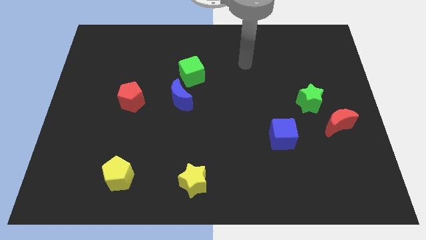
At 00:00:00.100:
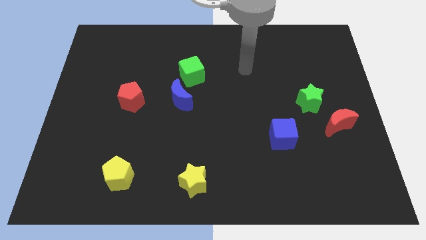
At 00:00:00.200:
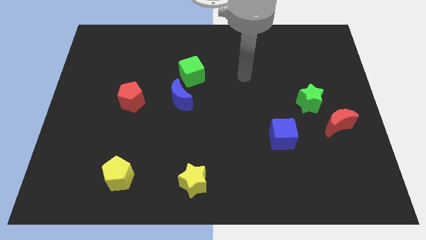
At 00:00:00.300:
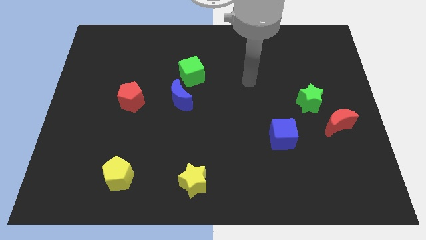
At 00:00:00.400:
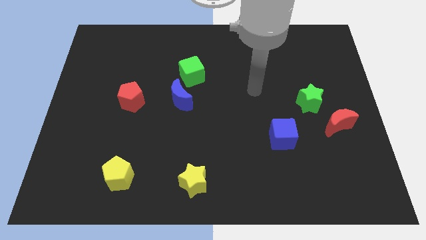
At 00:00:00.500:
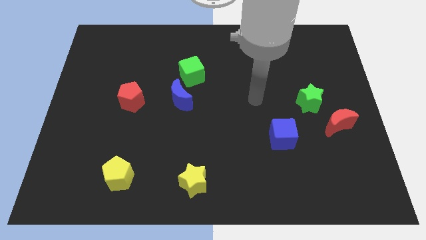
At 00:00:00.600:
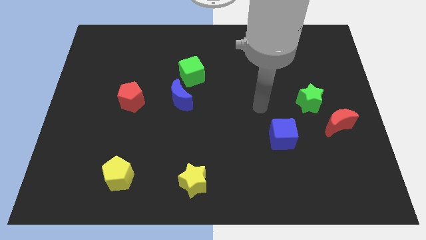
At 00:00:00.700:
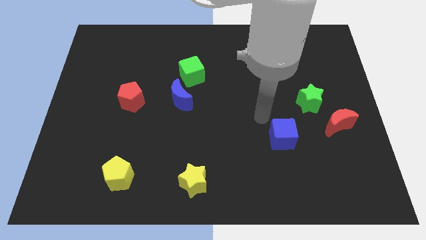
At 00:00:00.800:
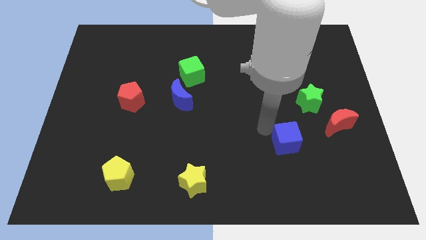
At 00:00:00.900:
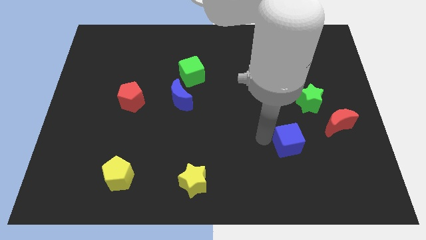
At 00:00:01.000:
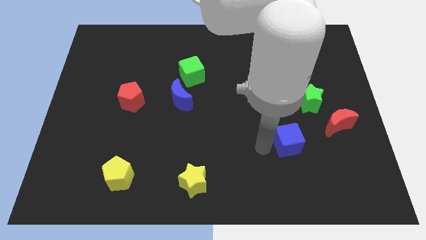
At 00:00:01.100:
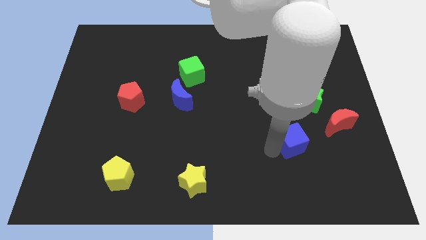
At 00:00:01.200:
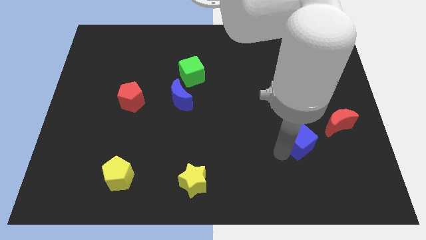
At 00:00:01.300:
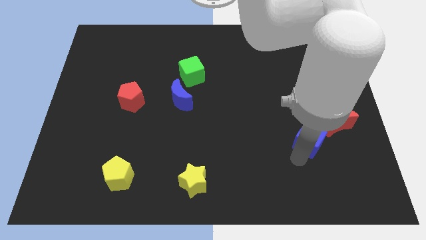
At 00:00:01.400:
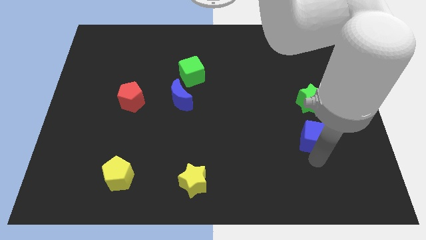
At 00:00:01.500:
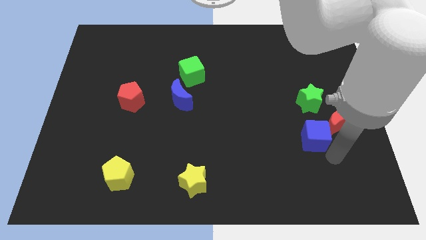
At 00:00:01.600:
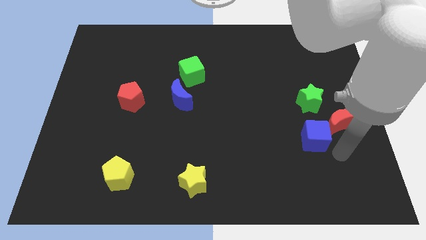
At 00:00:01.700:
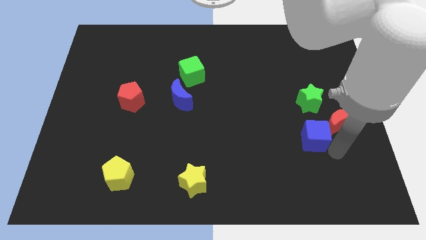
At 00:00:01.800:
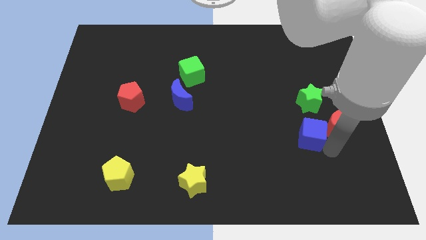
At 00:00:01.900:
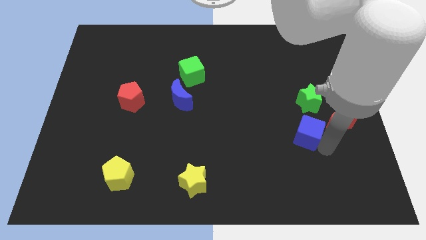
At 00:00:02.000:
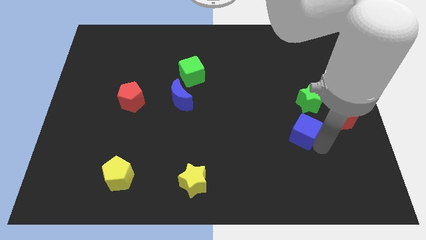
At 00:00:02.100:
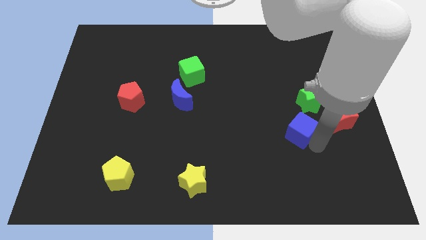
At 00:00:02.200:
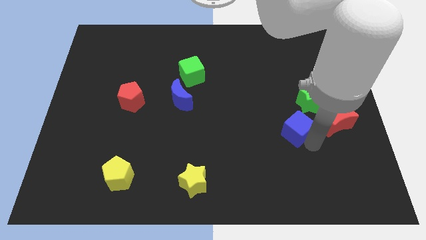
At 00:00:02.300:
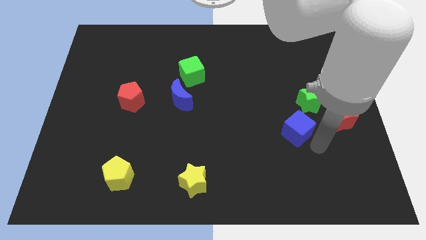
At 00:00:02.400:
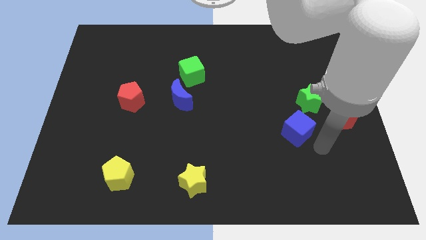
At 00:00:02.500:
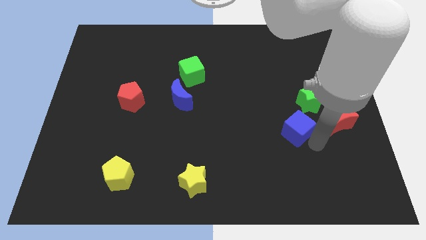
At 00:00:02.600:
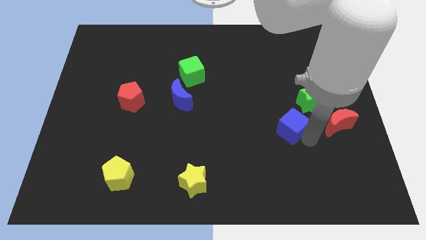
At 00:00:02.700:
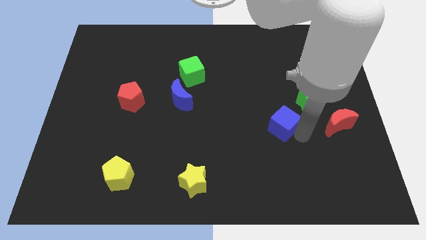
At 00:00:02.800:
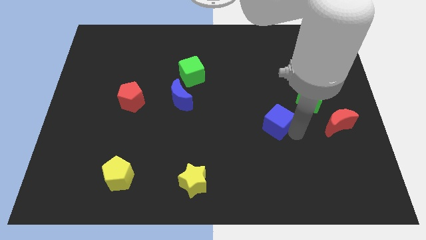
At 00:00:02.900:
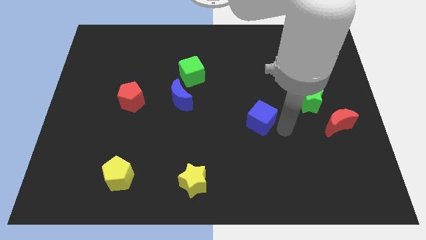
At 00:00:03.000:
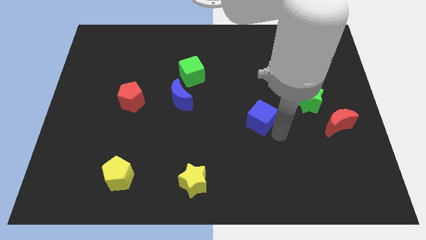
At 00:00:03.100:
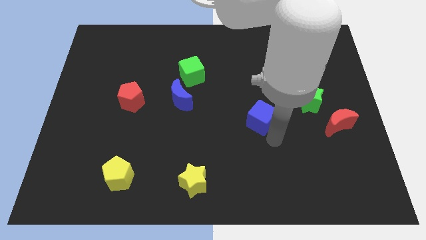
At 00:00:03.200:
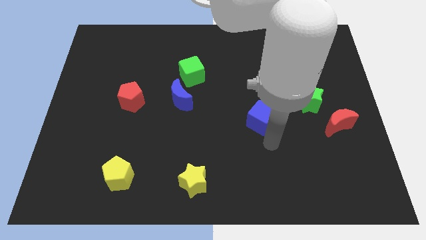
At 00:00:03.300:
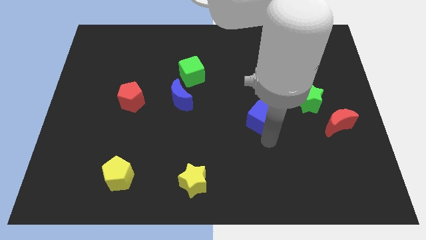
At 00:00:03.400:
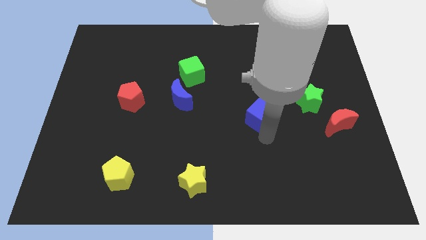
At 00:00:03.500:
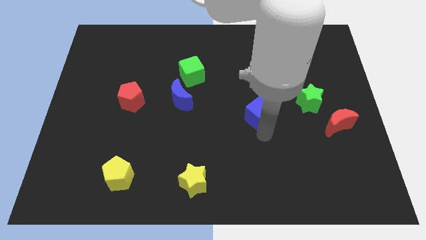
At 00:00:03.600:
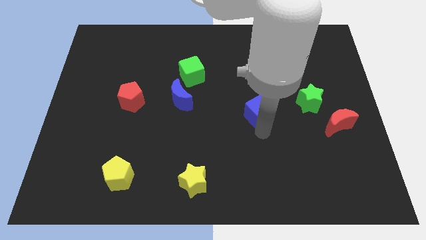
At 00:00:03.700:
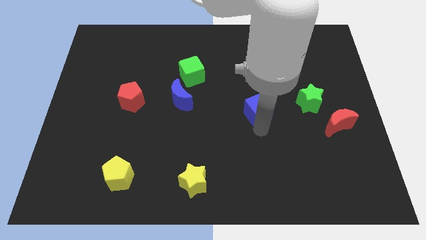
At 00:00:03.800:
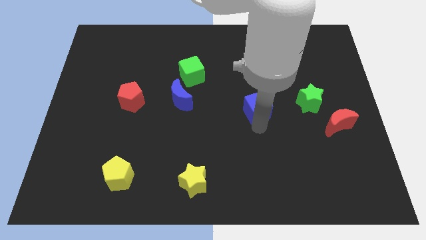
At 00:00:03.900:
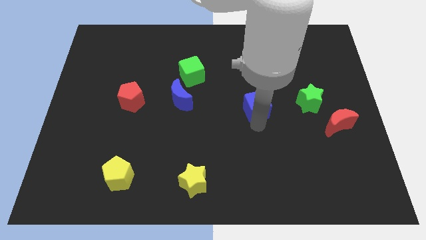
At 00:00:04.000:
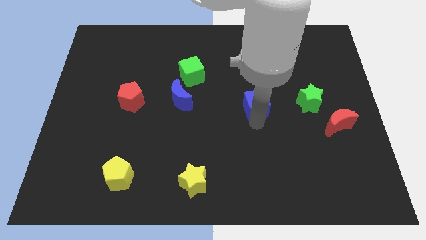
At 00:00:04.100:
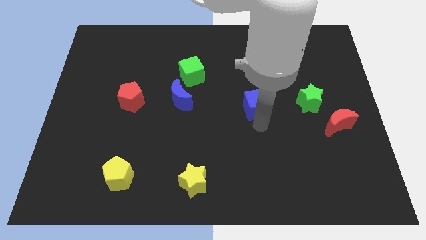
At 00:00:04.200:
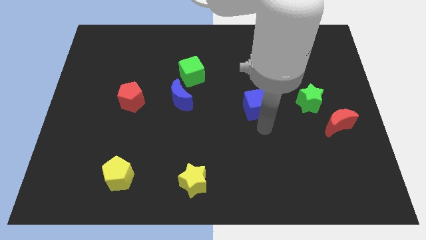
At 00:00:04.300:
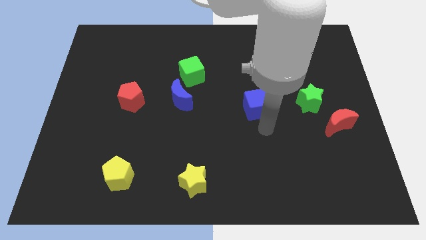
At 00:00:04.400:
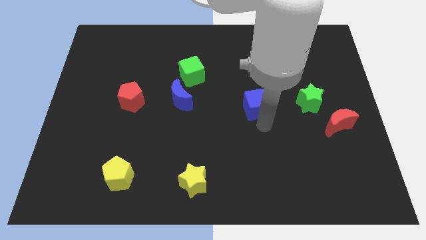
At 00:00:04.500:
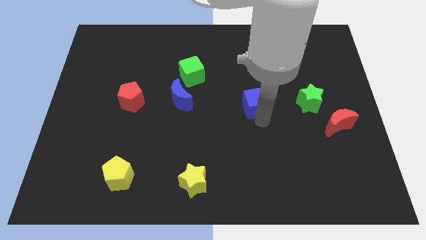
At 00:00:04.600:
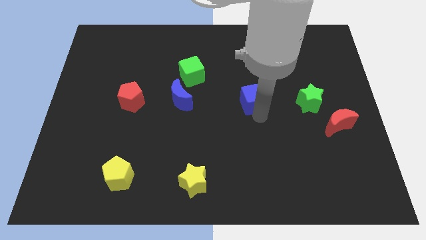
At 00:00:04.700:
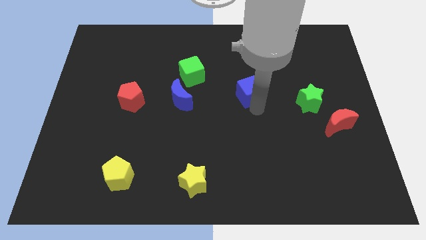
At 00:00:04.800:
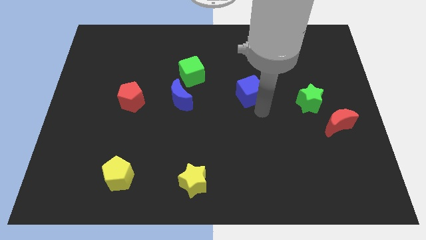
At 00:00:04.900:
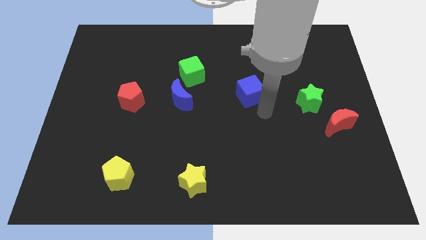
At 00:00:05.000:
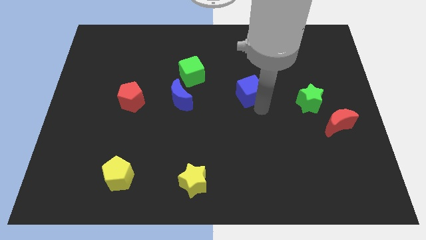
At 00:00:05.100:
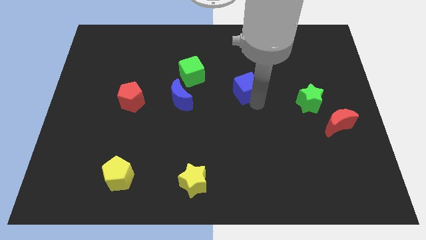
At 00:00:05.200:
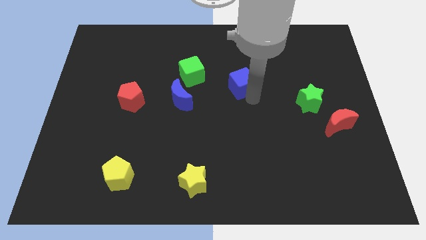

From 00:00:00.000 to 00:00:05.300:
put the blue cube right of the green cube

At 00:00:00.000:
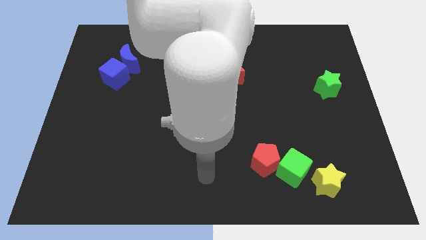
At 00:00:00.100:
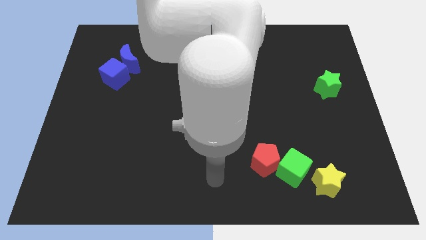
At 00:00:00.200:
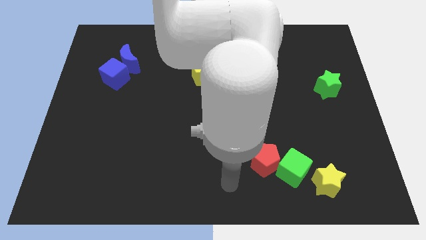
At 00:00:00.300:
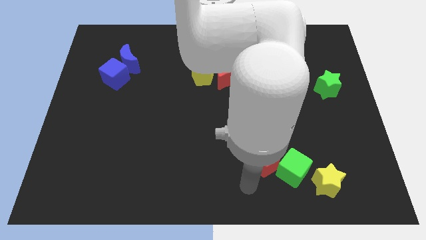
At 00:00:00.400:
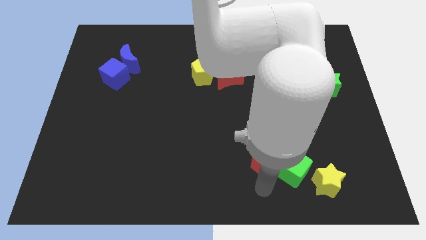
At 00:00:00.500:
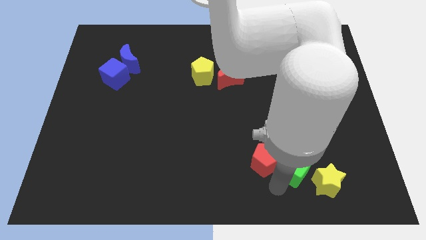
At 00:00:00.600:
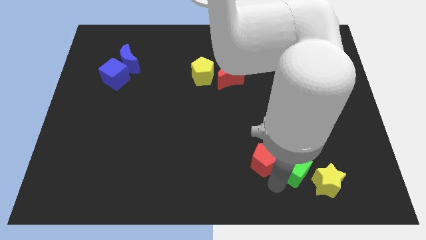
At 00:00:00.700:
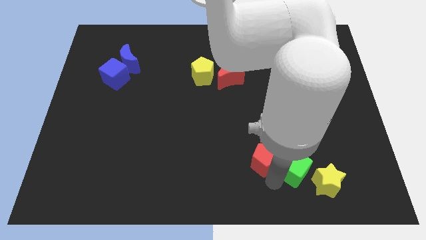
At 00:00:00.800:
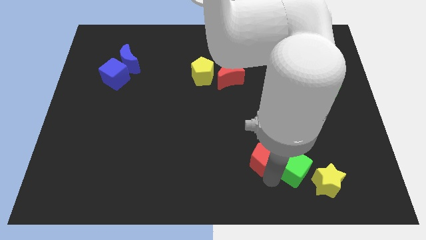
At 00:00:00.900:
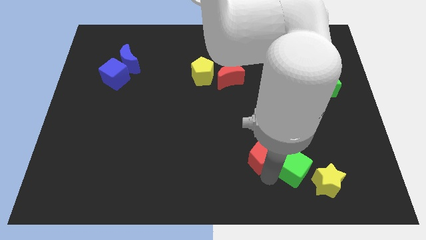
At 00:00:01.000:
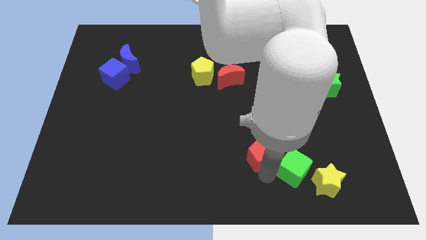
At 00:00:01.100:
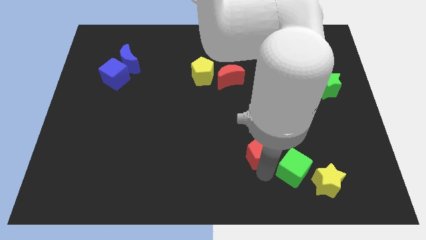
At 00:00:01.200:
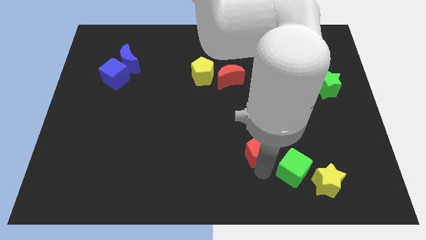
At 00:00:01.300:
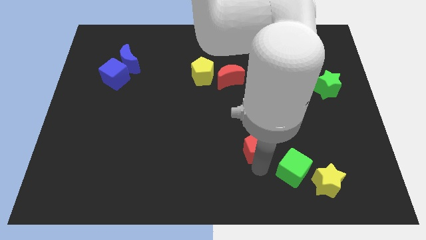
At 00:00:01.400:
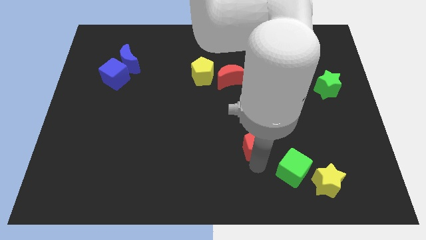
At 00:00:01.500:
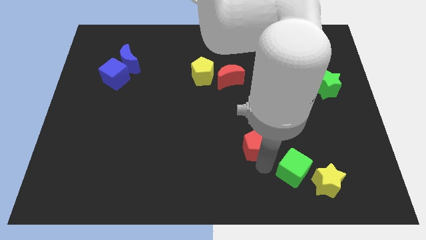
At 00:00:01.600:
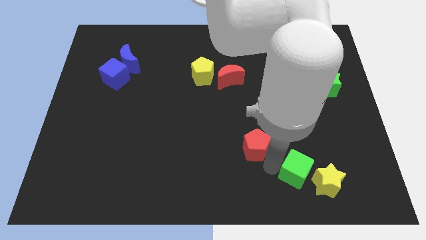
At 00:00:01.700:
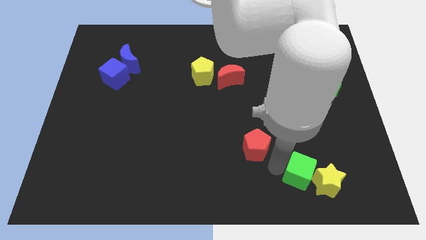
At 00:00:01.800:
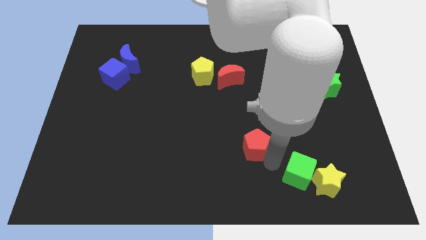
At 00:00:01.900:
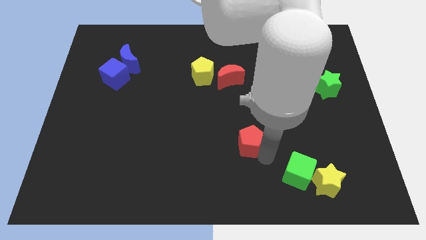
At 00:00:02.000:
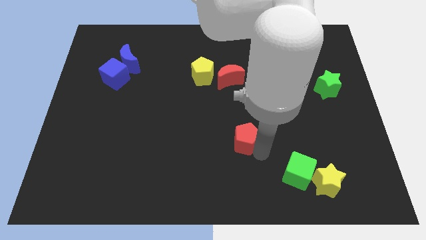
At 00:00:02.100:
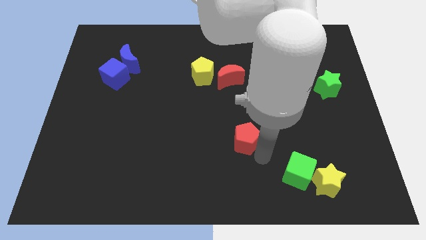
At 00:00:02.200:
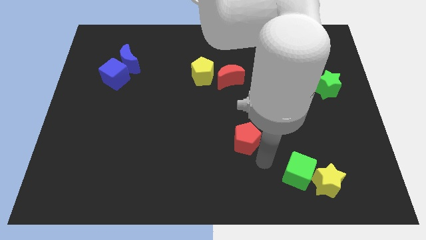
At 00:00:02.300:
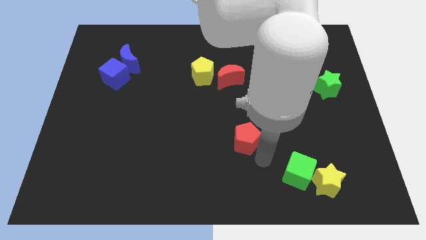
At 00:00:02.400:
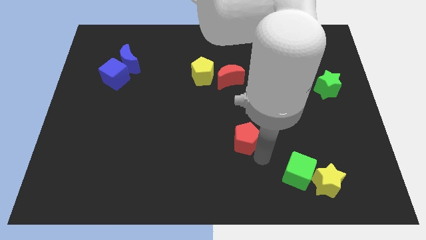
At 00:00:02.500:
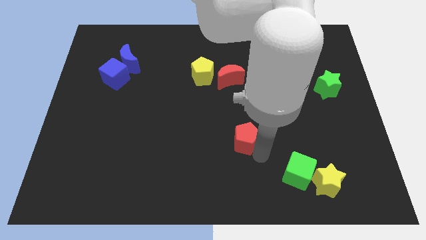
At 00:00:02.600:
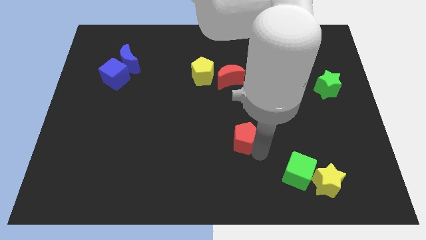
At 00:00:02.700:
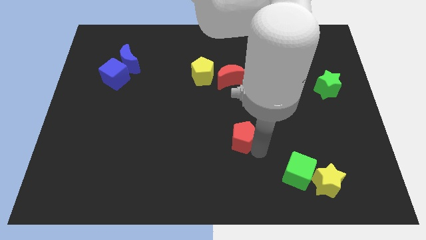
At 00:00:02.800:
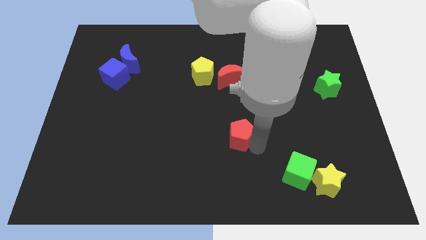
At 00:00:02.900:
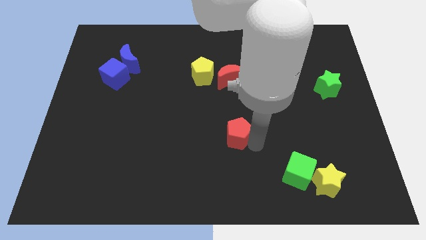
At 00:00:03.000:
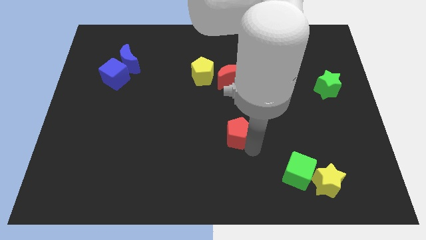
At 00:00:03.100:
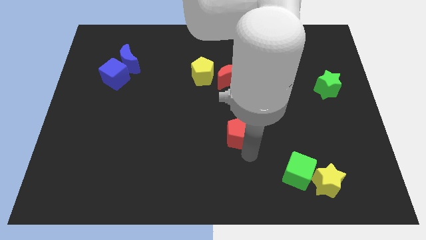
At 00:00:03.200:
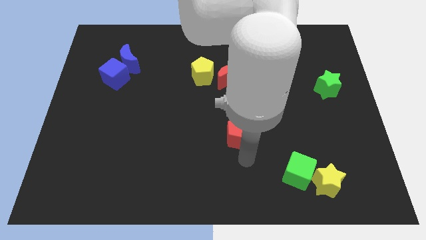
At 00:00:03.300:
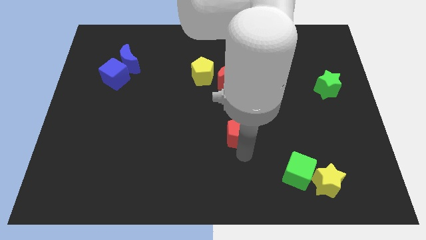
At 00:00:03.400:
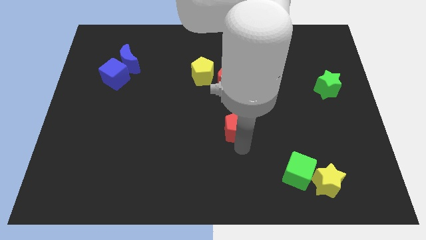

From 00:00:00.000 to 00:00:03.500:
put the red pentagon to the bottom side of the red moon
